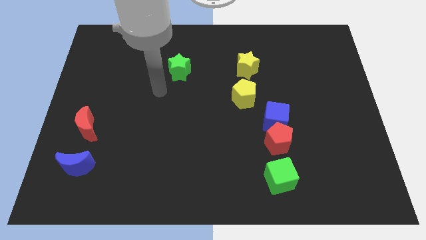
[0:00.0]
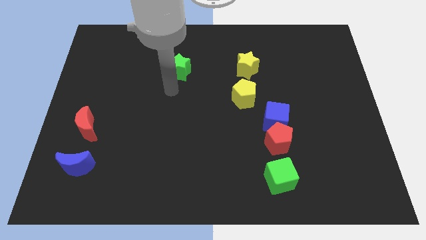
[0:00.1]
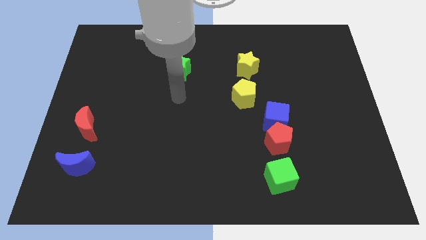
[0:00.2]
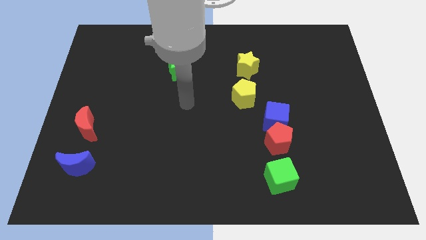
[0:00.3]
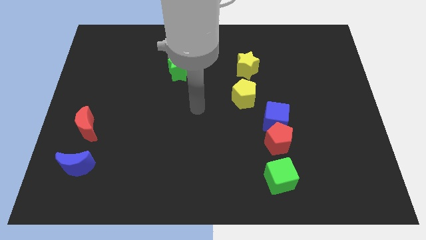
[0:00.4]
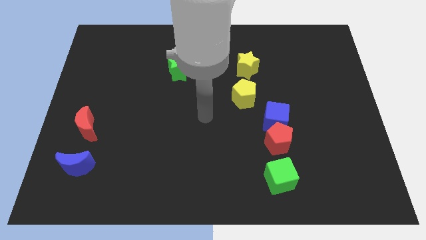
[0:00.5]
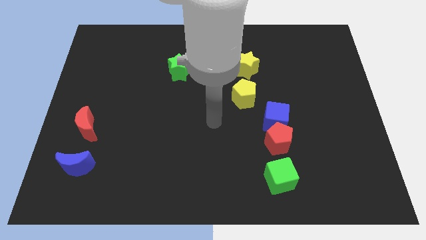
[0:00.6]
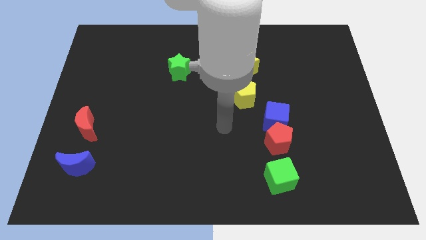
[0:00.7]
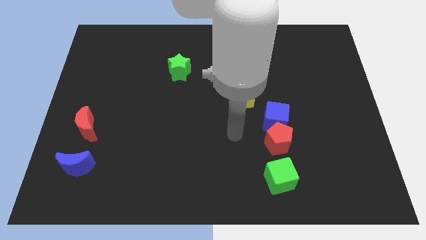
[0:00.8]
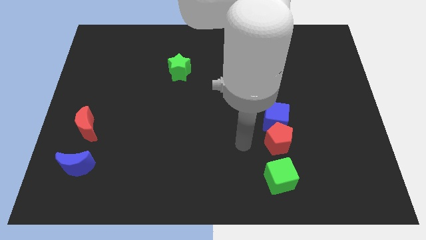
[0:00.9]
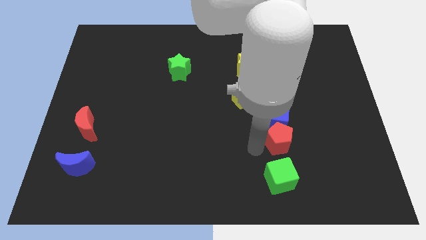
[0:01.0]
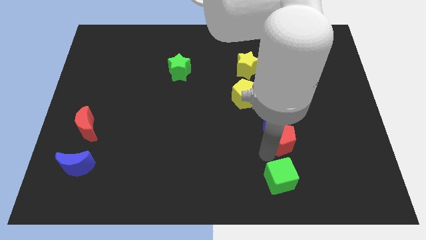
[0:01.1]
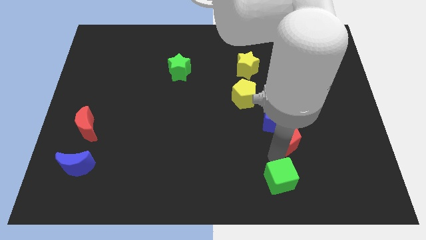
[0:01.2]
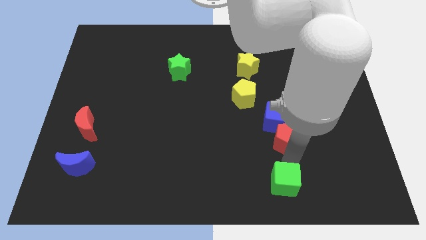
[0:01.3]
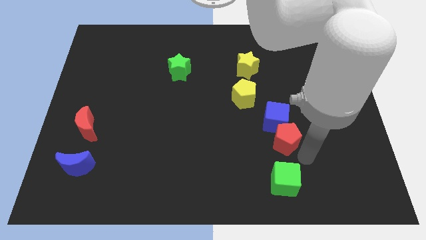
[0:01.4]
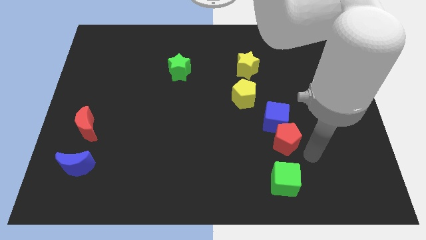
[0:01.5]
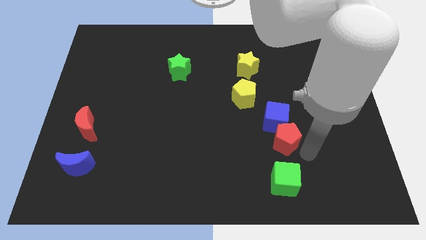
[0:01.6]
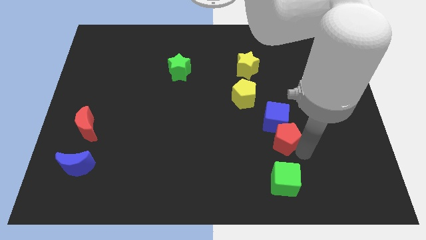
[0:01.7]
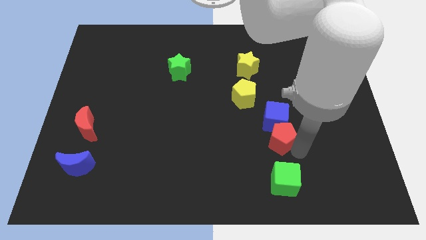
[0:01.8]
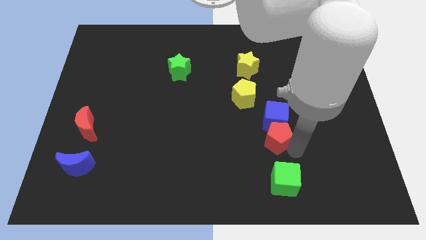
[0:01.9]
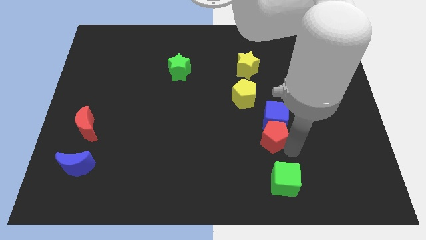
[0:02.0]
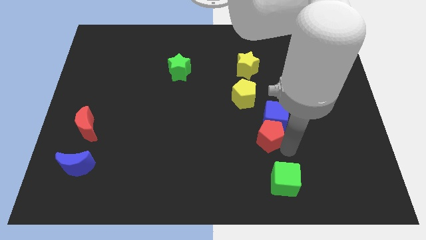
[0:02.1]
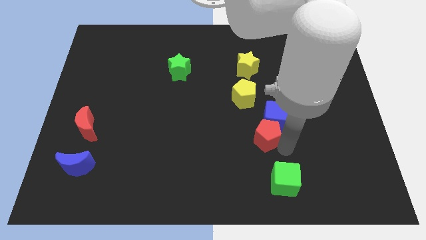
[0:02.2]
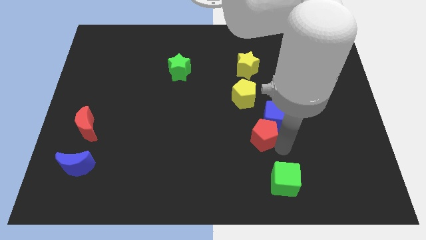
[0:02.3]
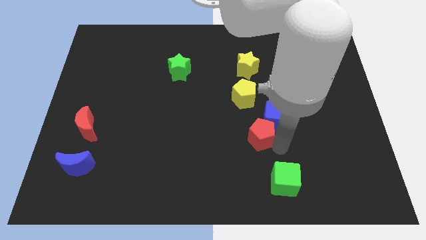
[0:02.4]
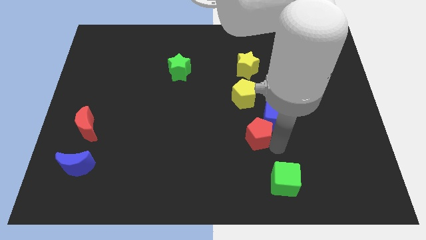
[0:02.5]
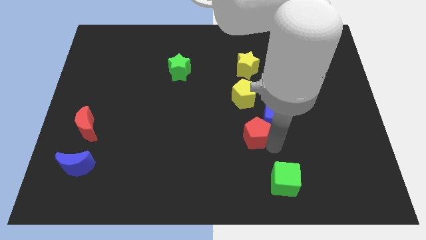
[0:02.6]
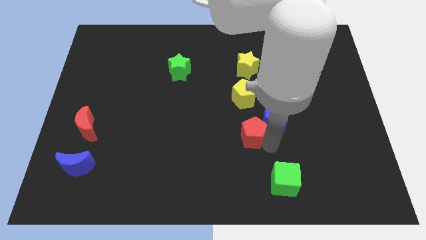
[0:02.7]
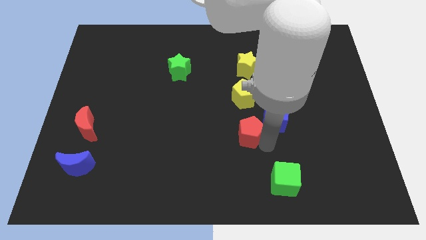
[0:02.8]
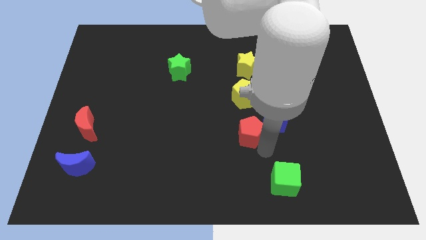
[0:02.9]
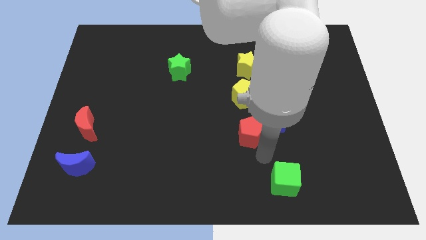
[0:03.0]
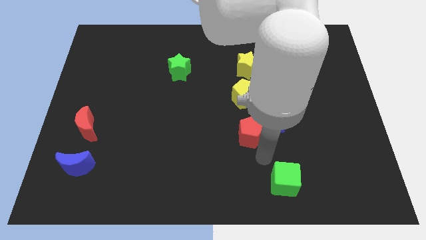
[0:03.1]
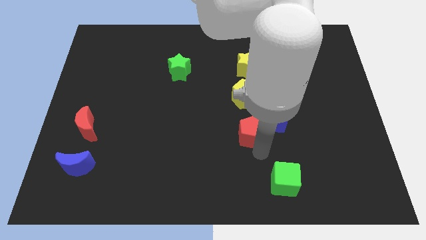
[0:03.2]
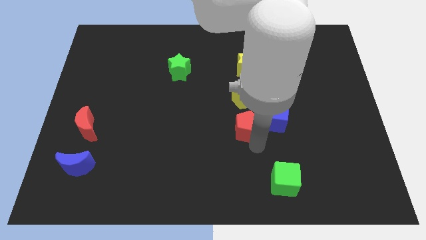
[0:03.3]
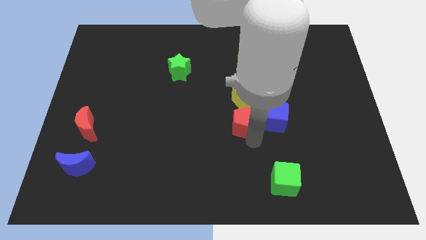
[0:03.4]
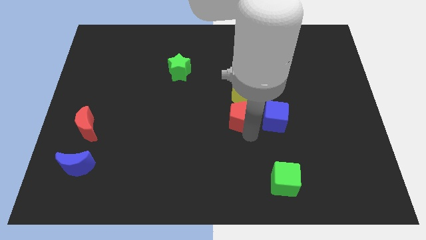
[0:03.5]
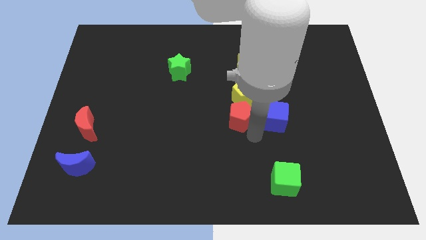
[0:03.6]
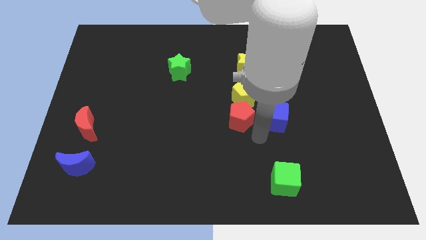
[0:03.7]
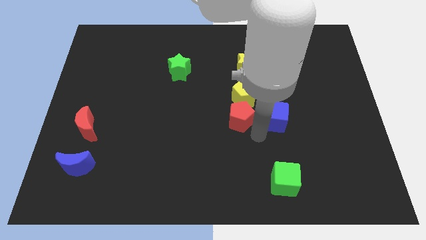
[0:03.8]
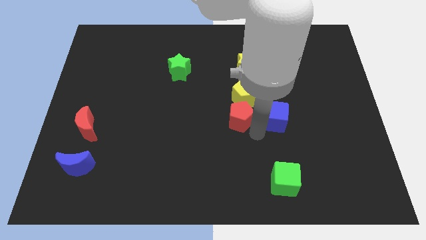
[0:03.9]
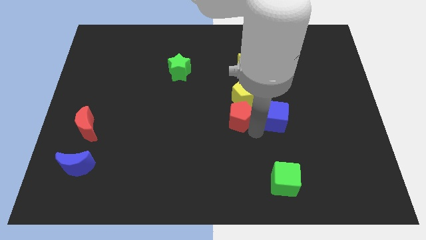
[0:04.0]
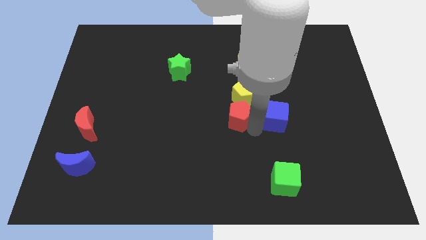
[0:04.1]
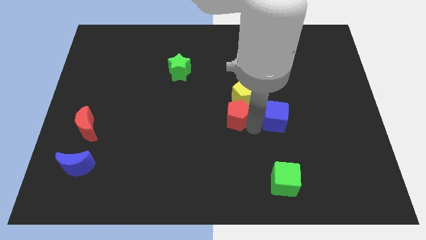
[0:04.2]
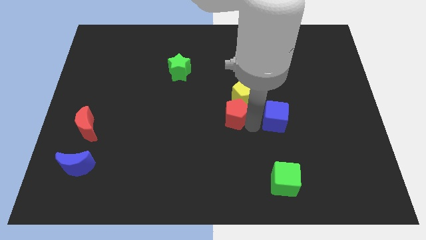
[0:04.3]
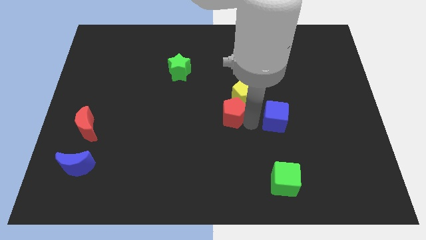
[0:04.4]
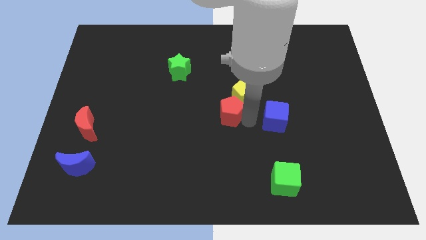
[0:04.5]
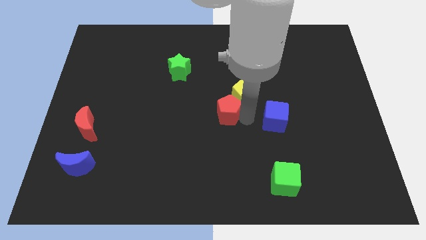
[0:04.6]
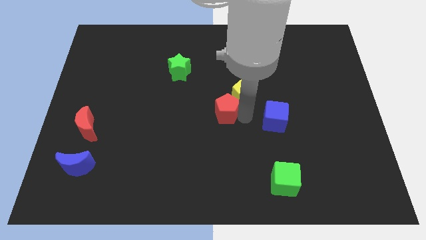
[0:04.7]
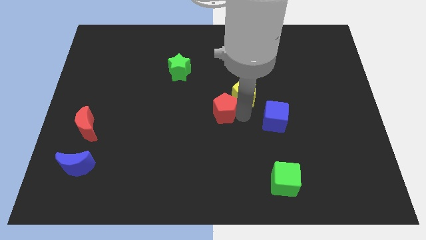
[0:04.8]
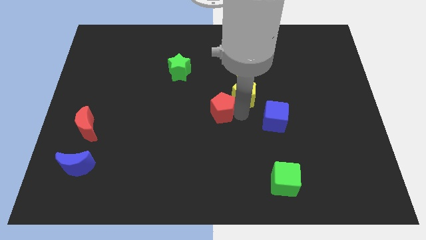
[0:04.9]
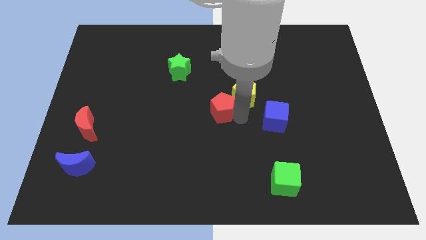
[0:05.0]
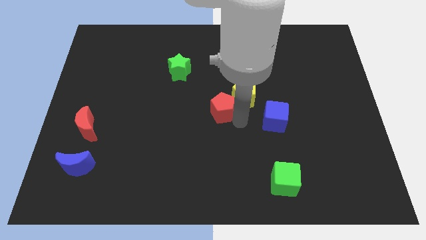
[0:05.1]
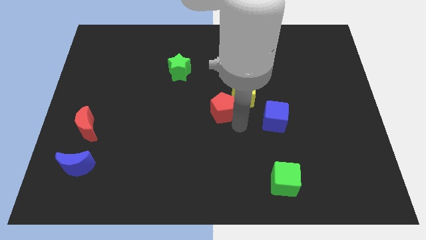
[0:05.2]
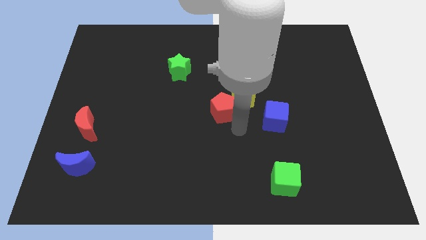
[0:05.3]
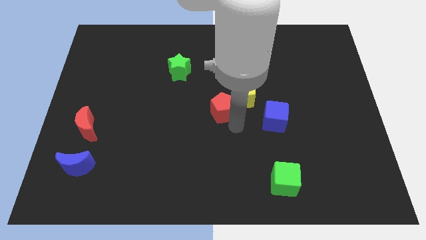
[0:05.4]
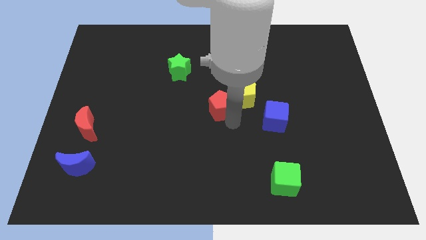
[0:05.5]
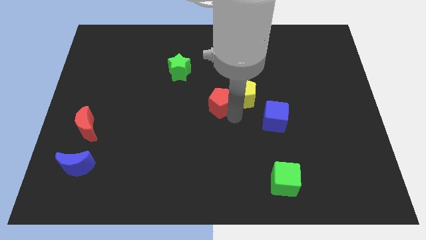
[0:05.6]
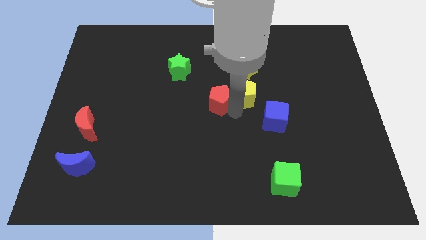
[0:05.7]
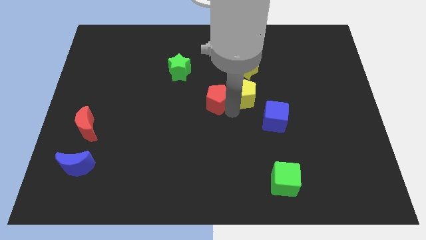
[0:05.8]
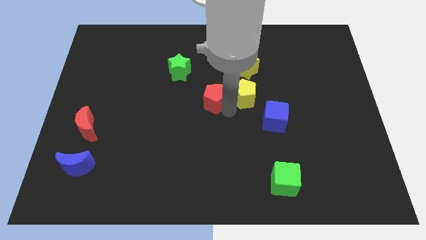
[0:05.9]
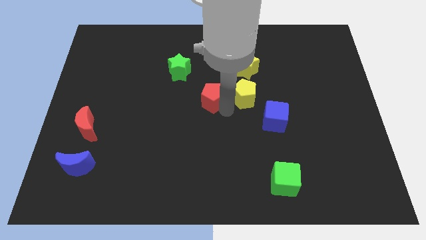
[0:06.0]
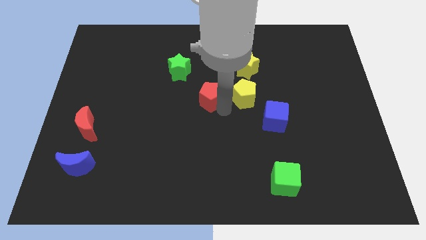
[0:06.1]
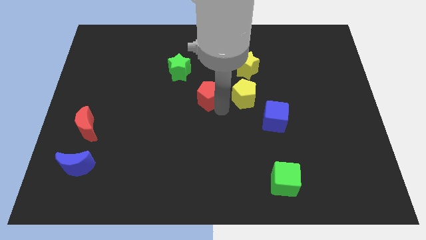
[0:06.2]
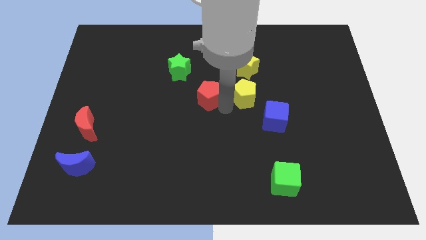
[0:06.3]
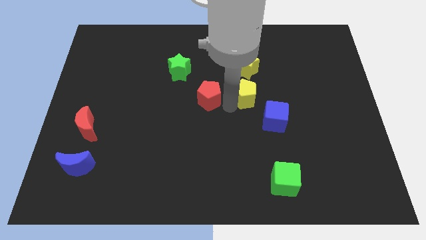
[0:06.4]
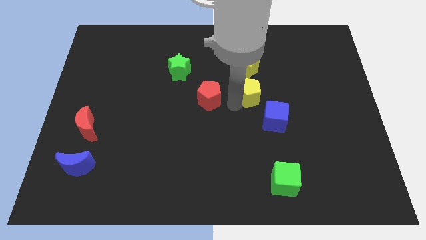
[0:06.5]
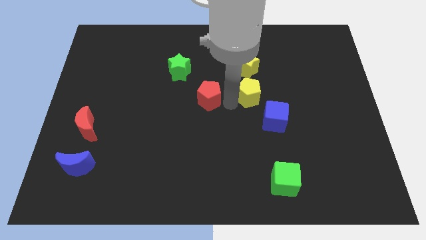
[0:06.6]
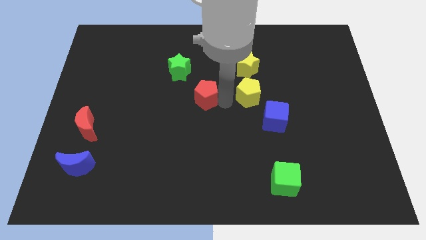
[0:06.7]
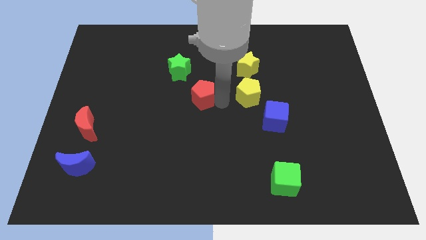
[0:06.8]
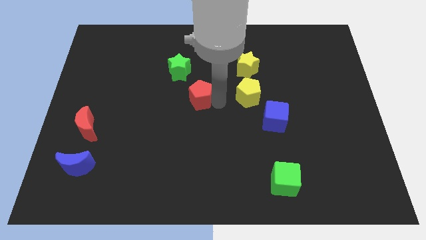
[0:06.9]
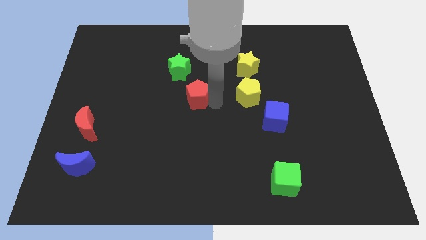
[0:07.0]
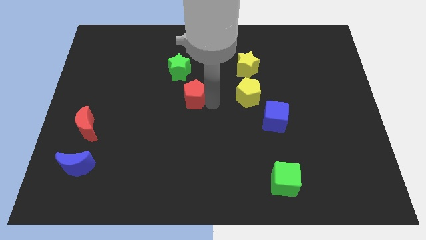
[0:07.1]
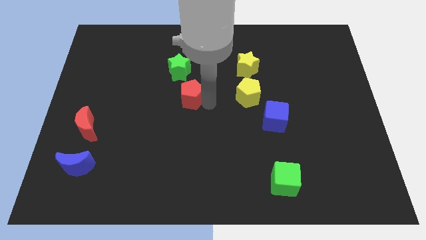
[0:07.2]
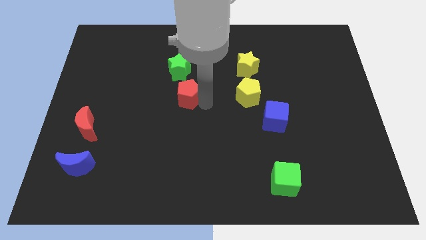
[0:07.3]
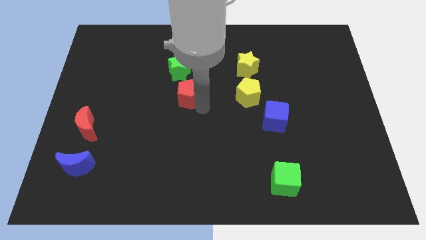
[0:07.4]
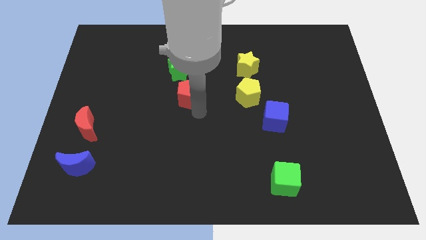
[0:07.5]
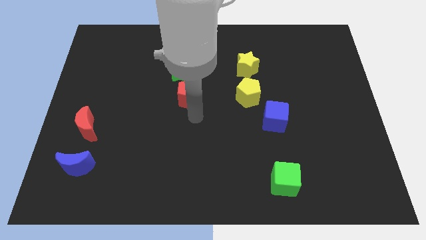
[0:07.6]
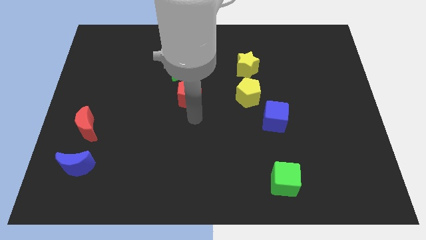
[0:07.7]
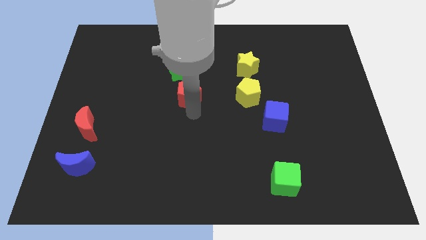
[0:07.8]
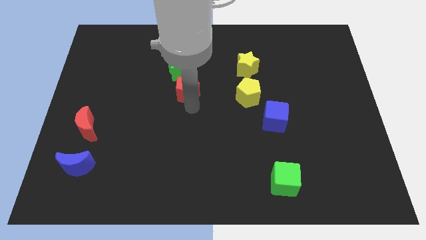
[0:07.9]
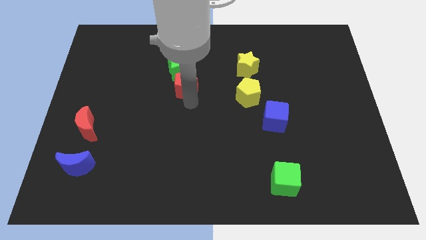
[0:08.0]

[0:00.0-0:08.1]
put the red pentagon close to the green star
